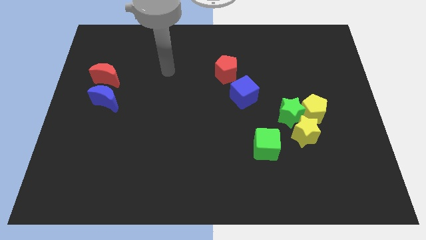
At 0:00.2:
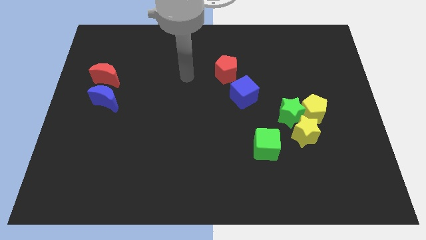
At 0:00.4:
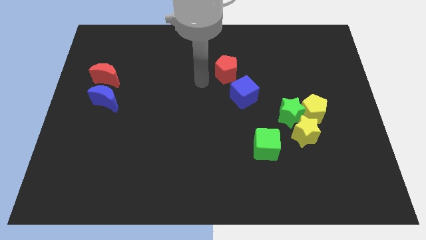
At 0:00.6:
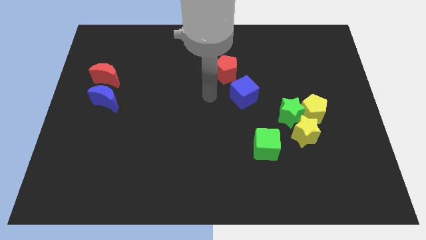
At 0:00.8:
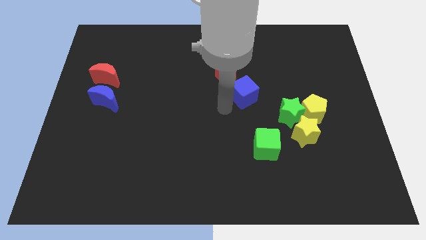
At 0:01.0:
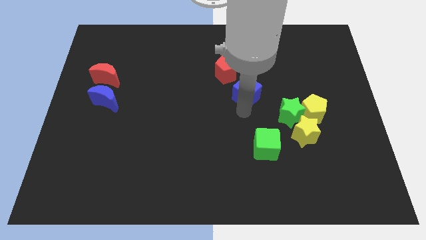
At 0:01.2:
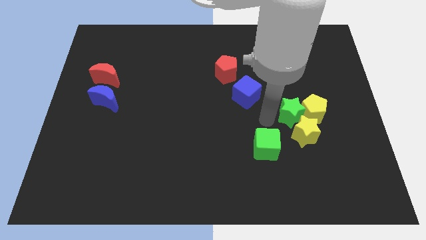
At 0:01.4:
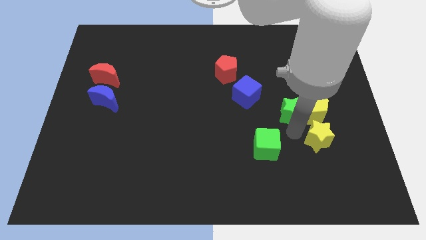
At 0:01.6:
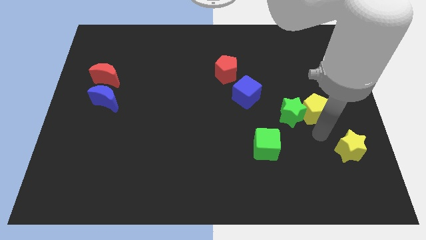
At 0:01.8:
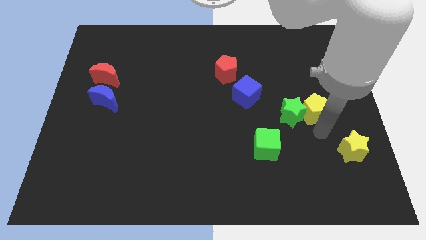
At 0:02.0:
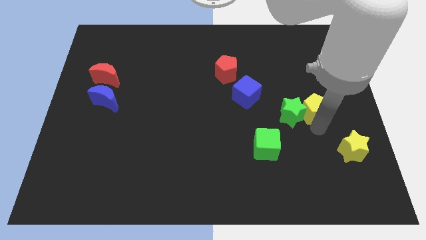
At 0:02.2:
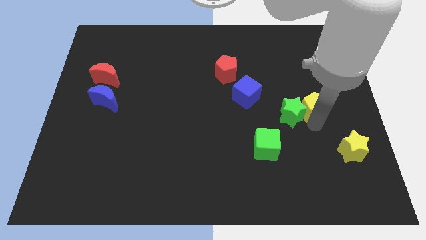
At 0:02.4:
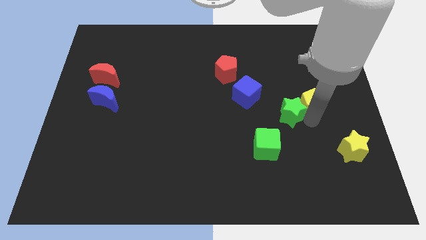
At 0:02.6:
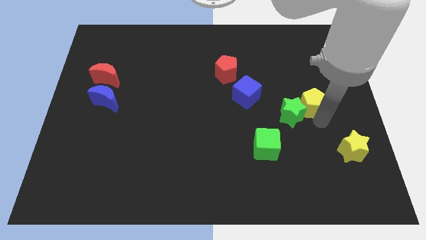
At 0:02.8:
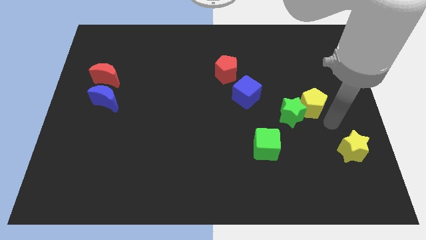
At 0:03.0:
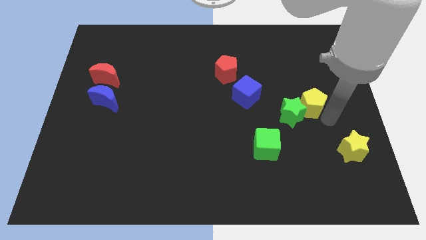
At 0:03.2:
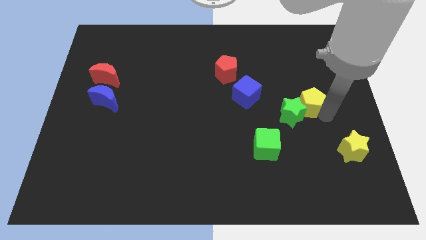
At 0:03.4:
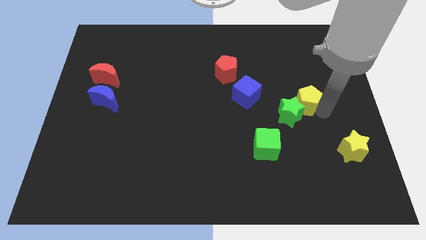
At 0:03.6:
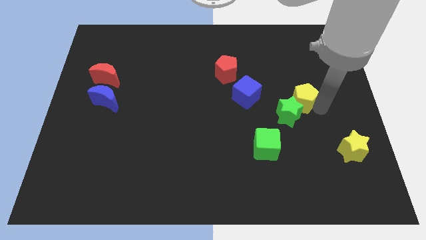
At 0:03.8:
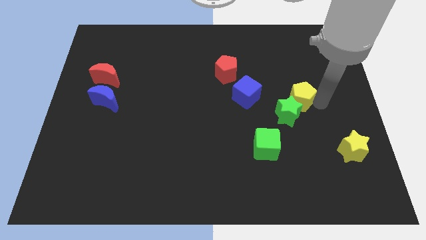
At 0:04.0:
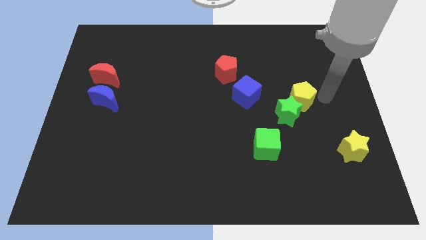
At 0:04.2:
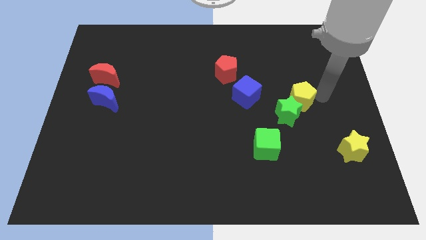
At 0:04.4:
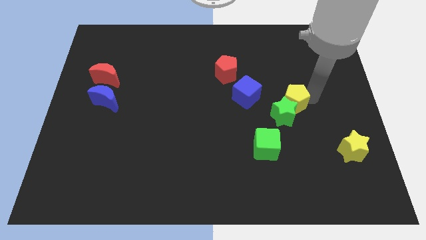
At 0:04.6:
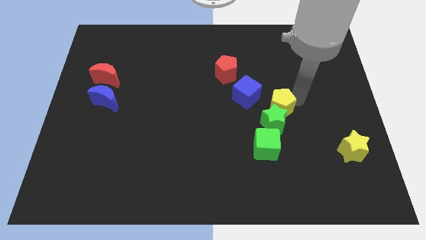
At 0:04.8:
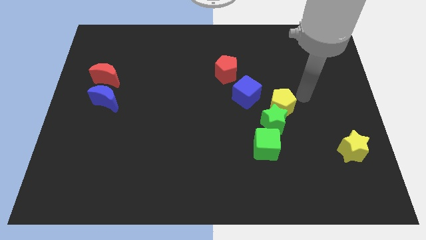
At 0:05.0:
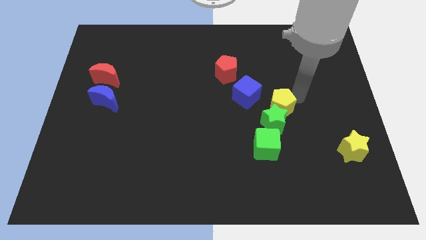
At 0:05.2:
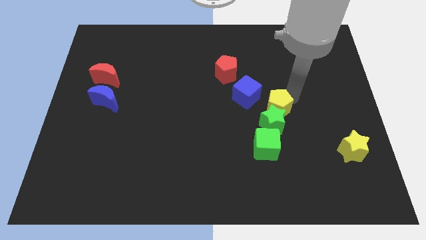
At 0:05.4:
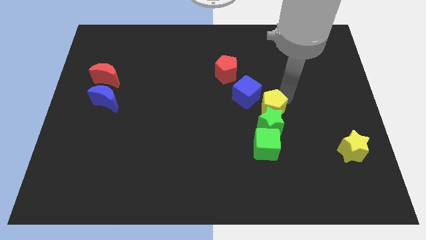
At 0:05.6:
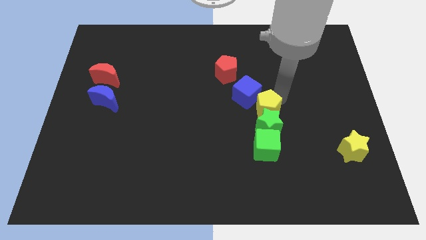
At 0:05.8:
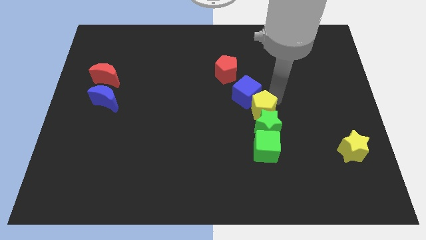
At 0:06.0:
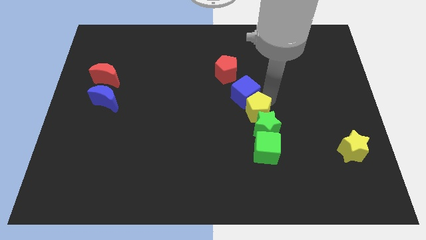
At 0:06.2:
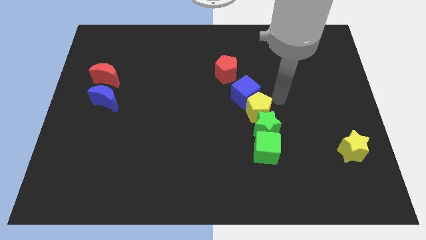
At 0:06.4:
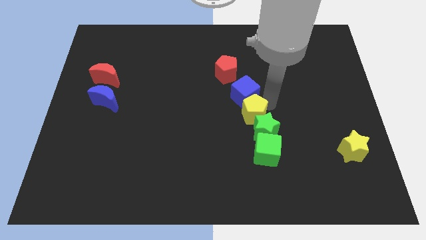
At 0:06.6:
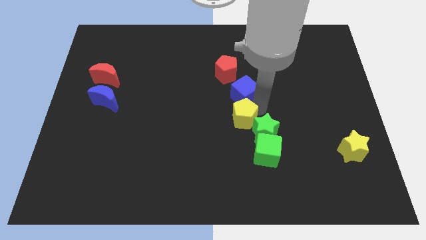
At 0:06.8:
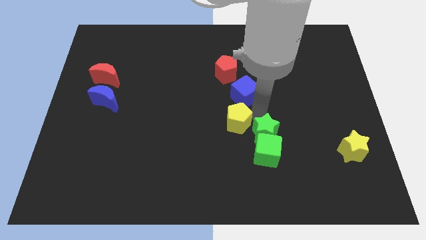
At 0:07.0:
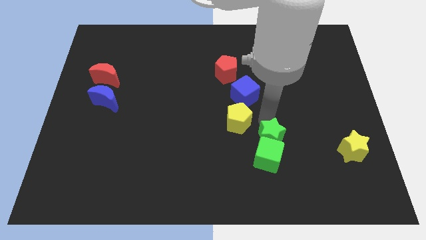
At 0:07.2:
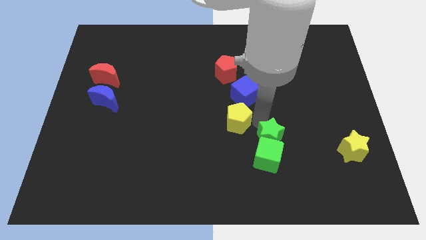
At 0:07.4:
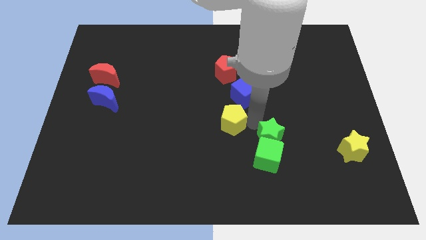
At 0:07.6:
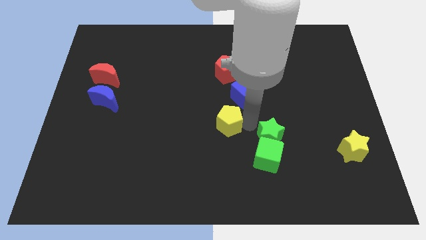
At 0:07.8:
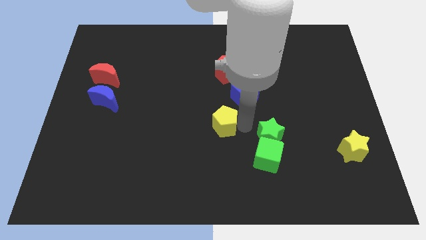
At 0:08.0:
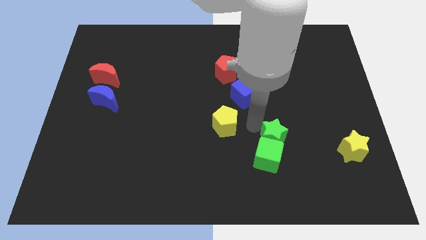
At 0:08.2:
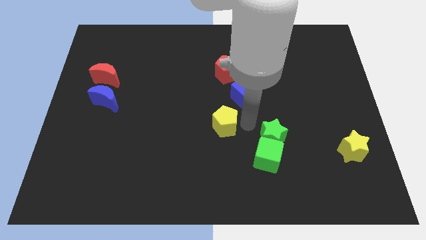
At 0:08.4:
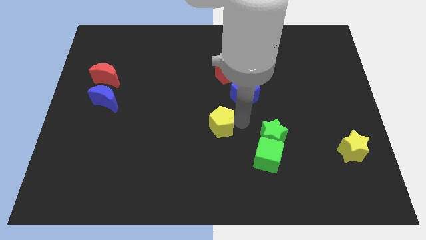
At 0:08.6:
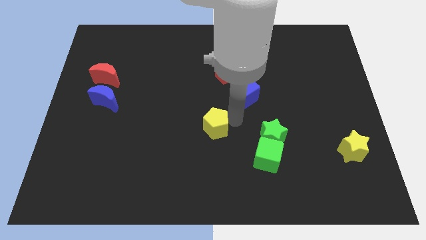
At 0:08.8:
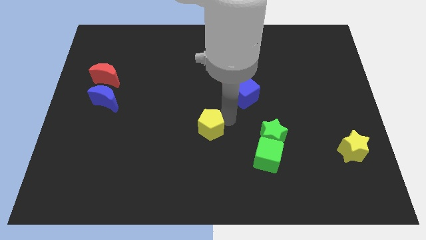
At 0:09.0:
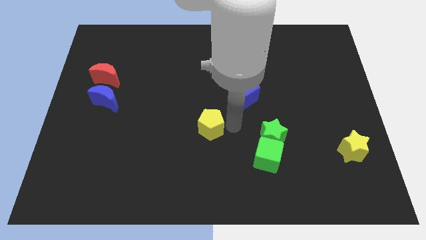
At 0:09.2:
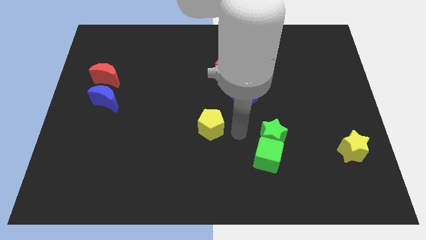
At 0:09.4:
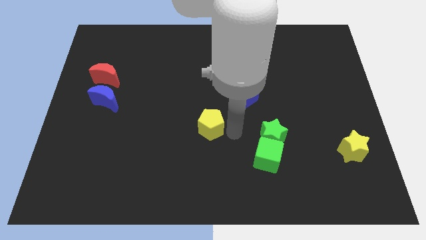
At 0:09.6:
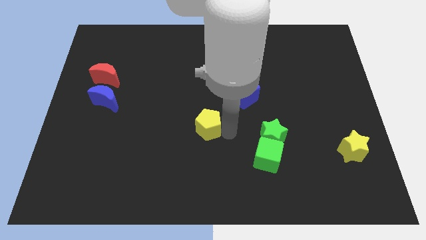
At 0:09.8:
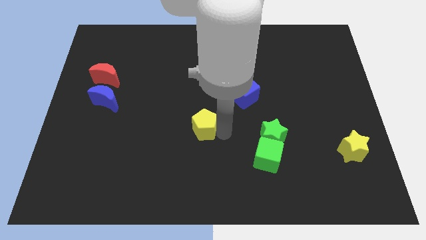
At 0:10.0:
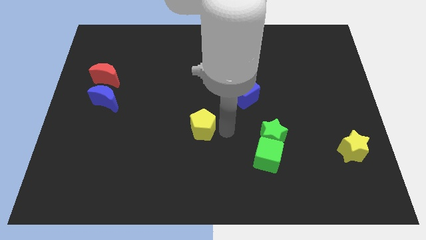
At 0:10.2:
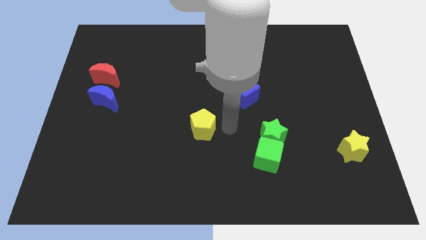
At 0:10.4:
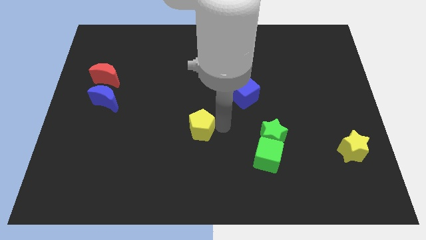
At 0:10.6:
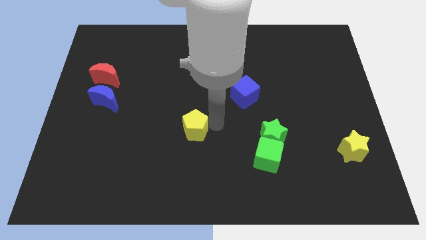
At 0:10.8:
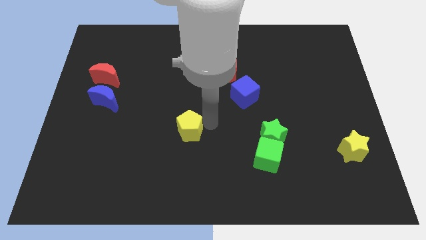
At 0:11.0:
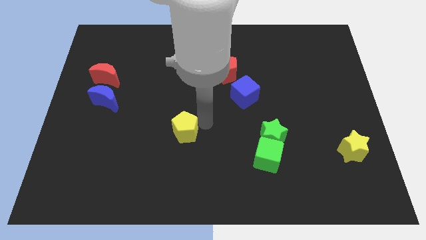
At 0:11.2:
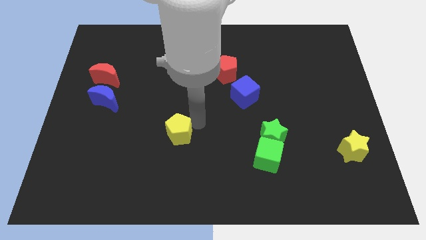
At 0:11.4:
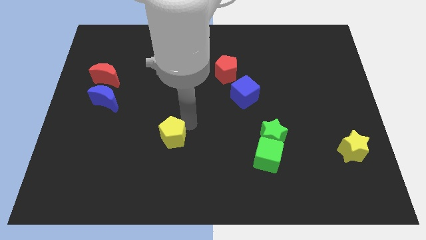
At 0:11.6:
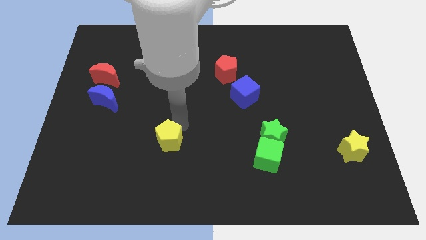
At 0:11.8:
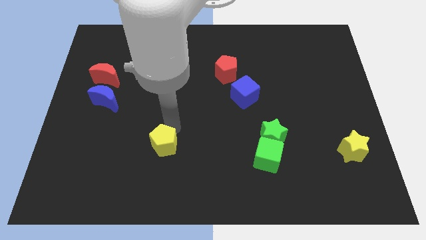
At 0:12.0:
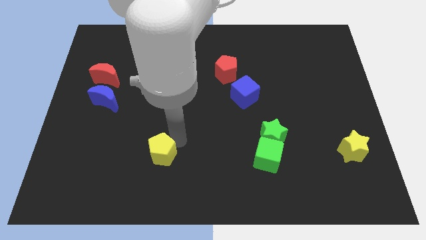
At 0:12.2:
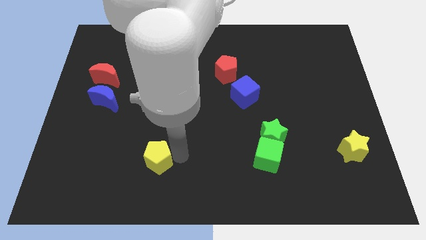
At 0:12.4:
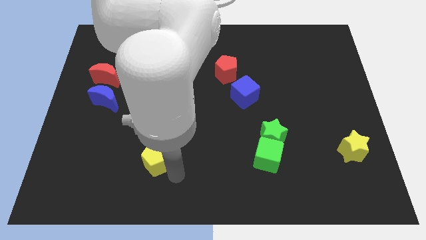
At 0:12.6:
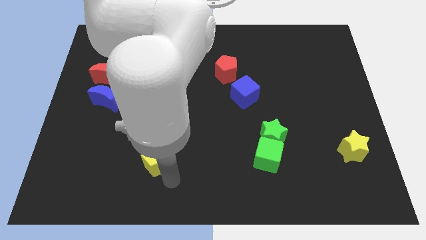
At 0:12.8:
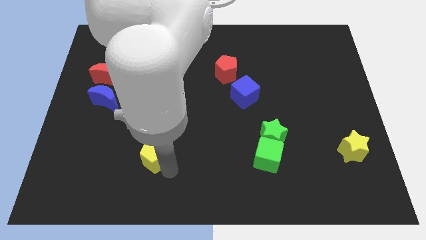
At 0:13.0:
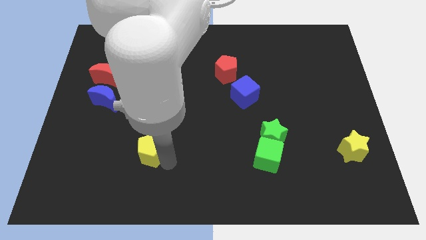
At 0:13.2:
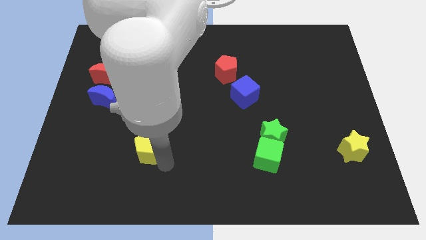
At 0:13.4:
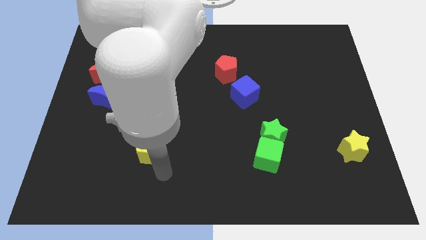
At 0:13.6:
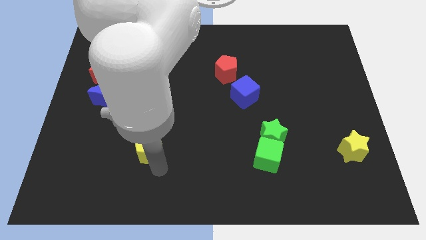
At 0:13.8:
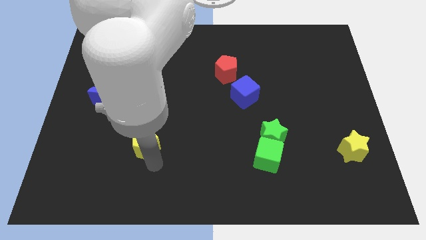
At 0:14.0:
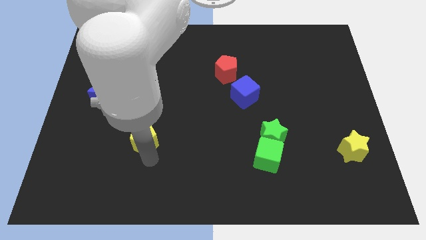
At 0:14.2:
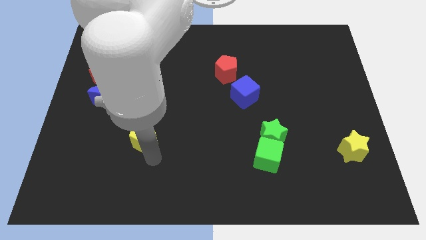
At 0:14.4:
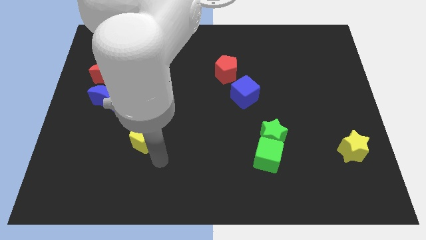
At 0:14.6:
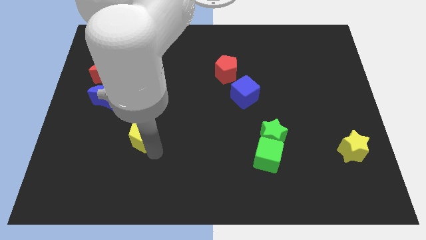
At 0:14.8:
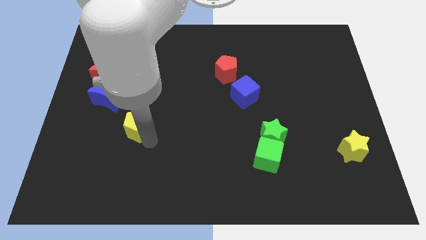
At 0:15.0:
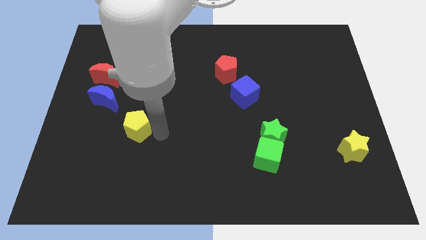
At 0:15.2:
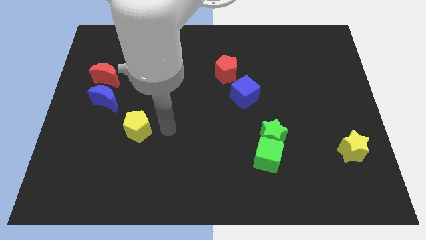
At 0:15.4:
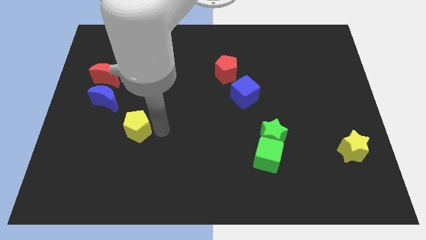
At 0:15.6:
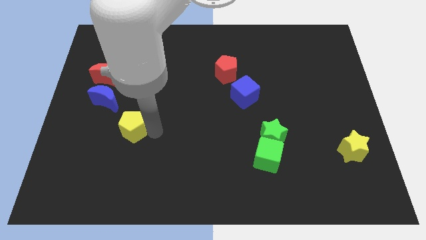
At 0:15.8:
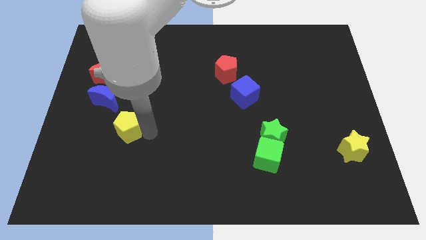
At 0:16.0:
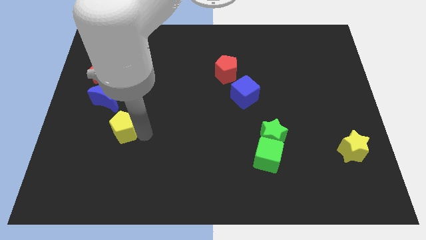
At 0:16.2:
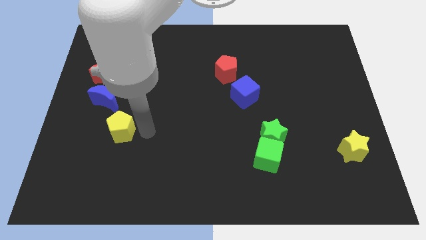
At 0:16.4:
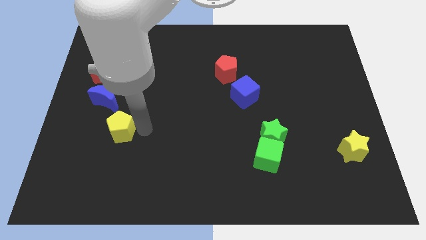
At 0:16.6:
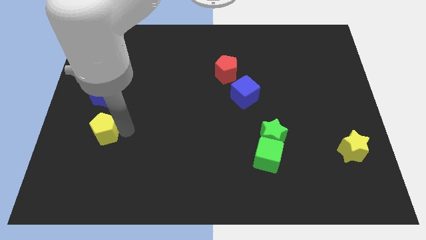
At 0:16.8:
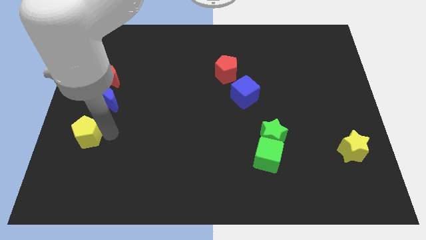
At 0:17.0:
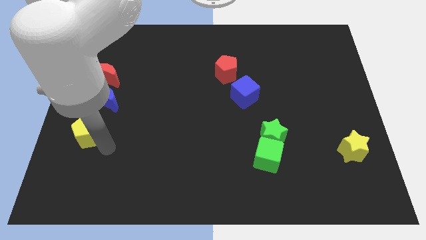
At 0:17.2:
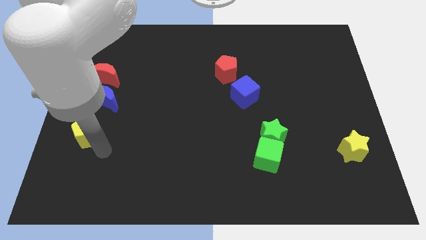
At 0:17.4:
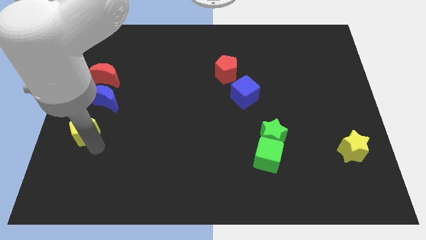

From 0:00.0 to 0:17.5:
push the yellow pentagon to the left side
